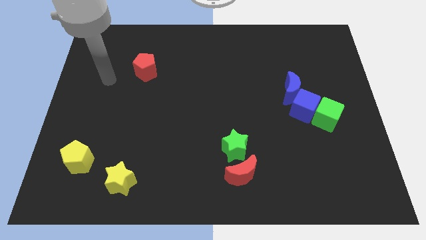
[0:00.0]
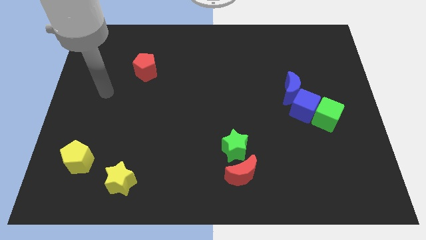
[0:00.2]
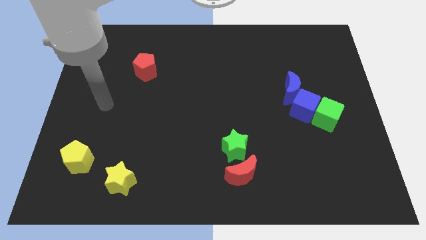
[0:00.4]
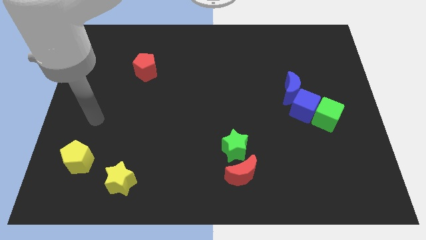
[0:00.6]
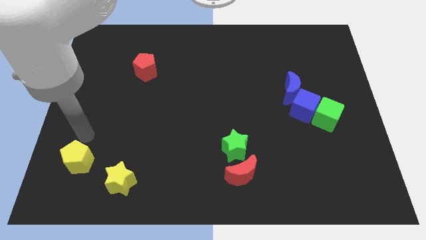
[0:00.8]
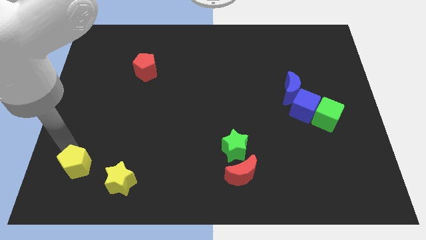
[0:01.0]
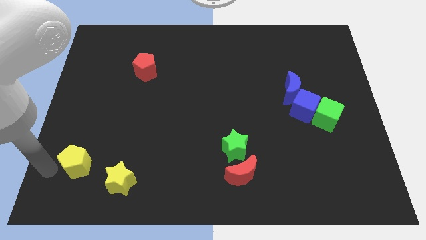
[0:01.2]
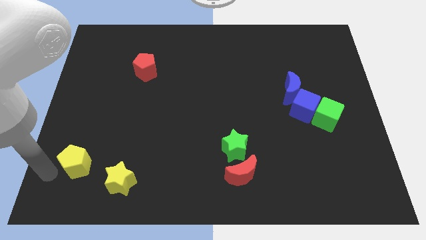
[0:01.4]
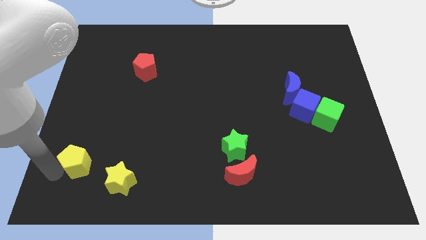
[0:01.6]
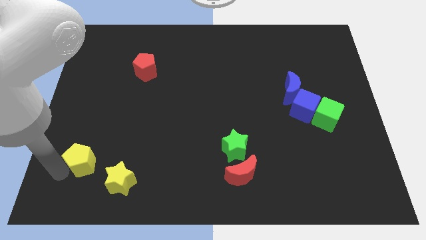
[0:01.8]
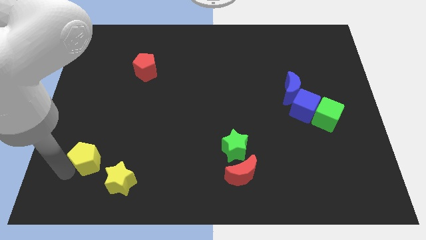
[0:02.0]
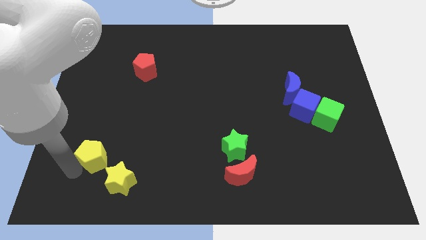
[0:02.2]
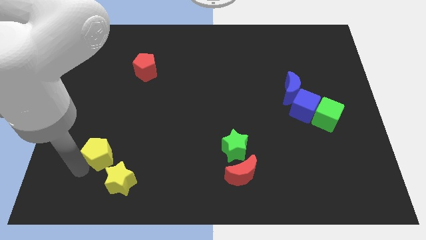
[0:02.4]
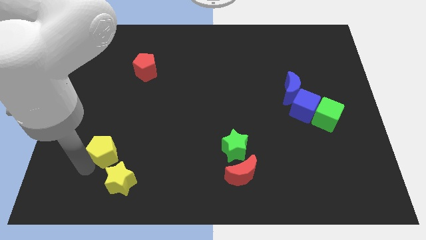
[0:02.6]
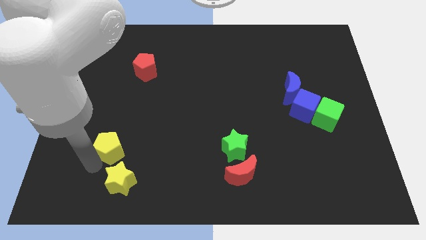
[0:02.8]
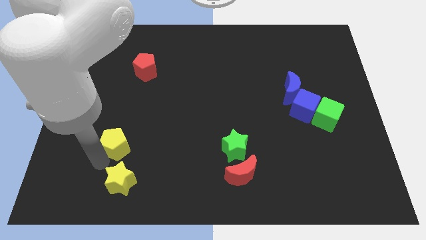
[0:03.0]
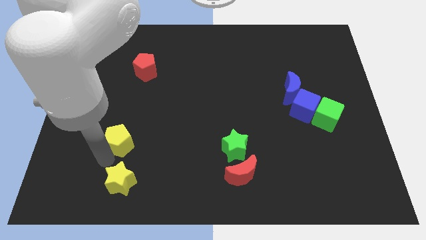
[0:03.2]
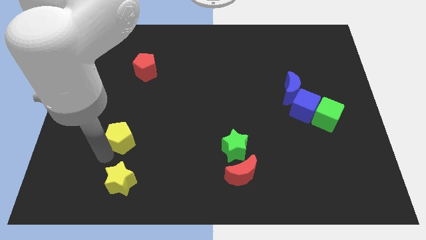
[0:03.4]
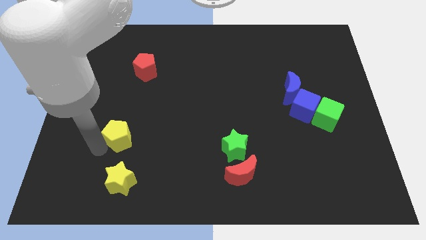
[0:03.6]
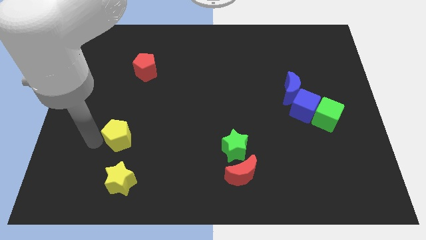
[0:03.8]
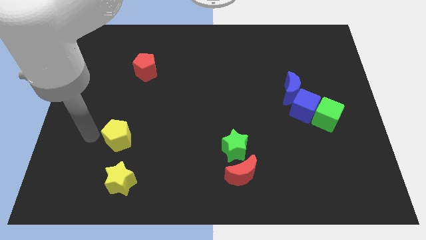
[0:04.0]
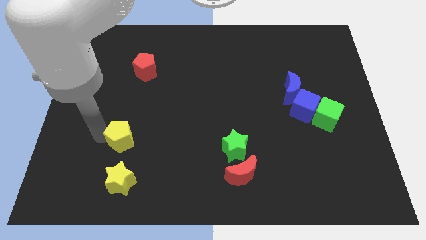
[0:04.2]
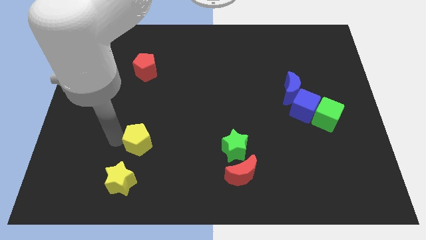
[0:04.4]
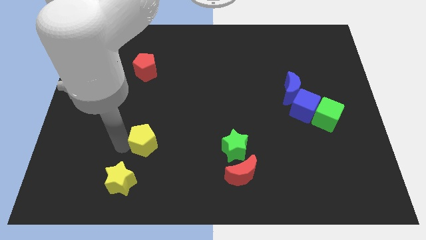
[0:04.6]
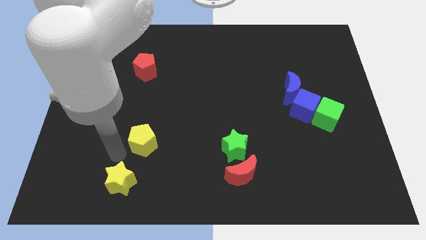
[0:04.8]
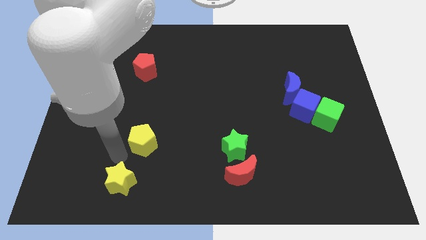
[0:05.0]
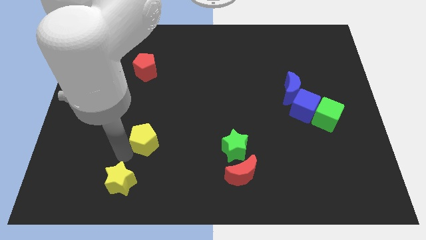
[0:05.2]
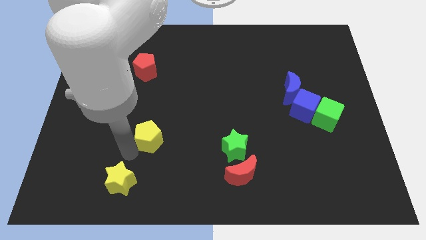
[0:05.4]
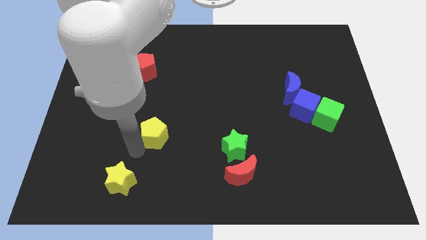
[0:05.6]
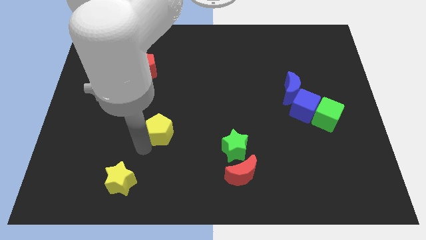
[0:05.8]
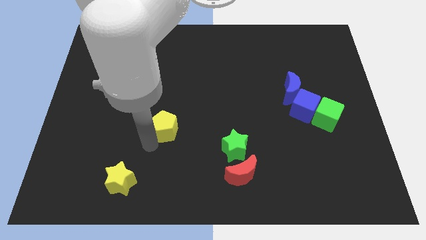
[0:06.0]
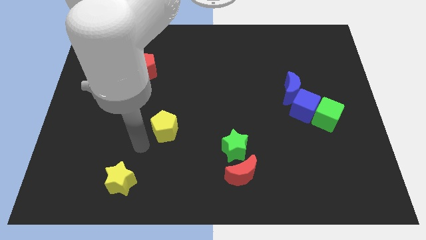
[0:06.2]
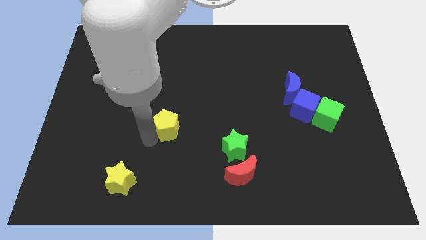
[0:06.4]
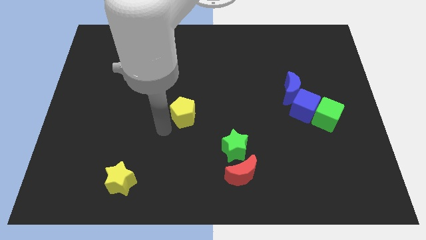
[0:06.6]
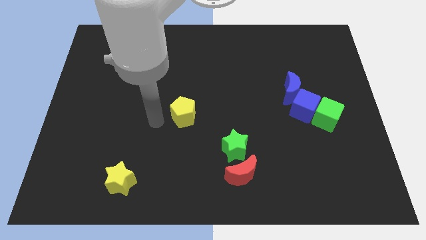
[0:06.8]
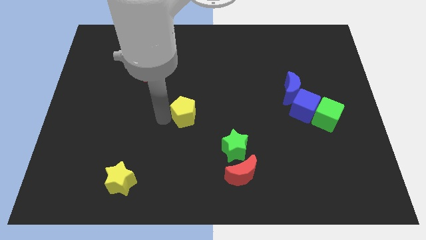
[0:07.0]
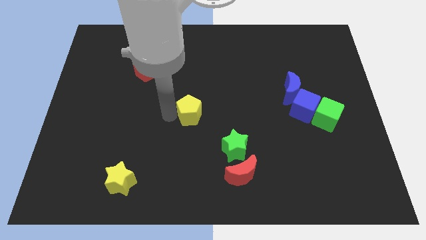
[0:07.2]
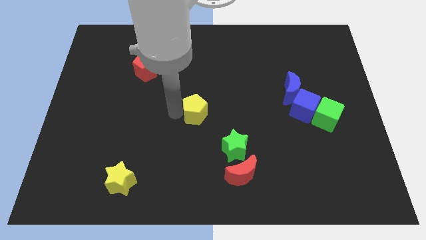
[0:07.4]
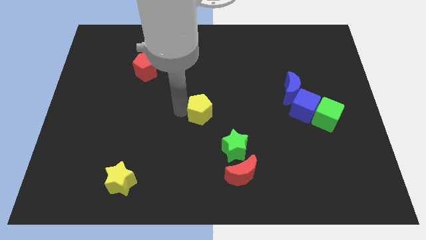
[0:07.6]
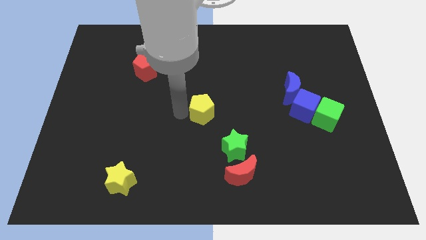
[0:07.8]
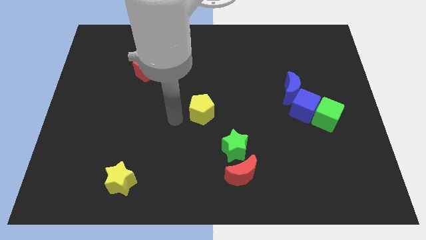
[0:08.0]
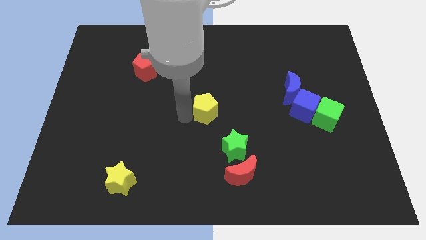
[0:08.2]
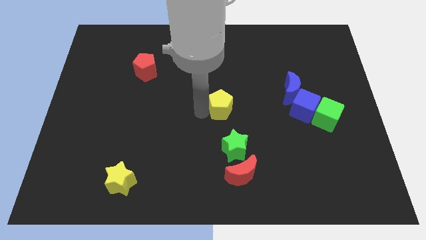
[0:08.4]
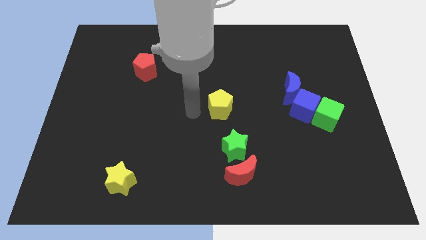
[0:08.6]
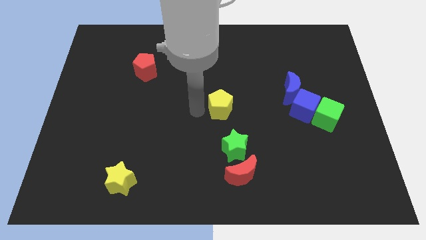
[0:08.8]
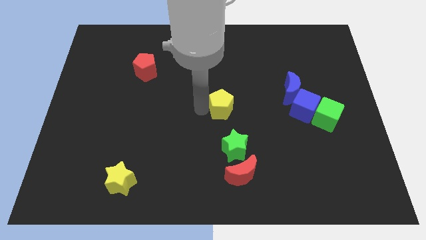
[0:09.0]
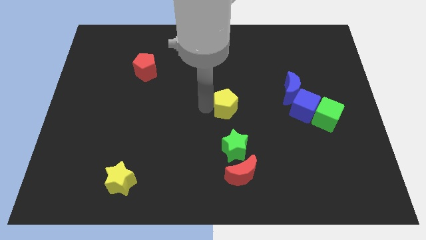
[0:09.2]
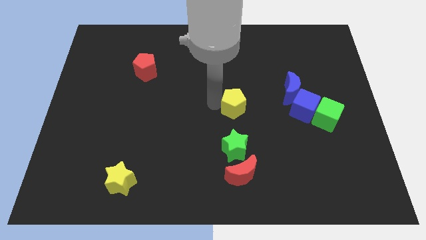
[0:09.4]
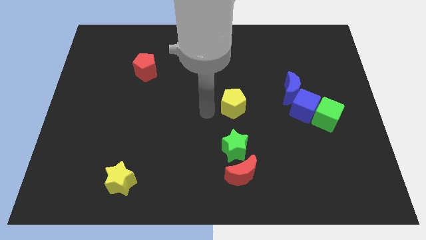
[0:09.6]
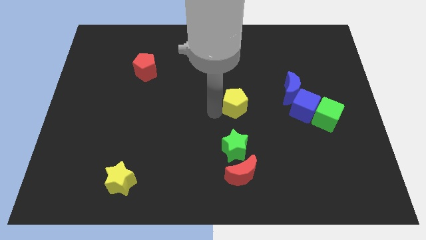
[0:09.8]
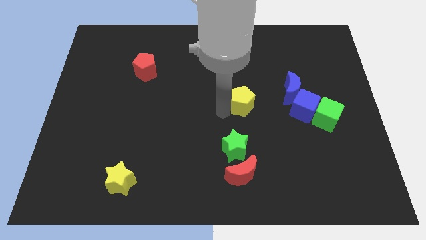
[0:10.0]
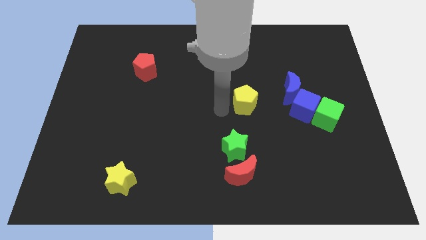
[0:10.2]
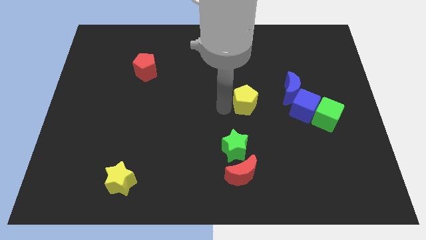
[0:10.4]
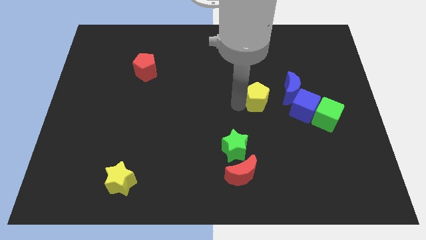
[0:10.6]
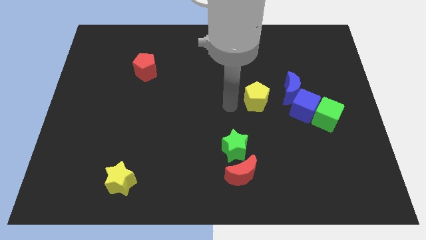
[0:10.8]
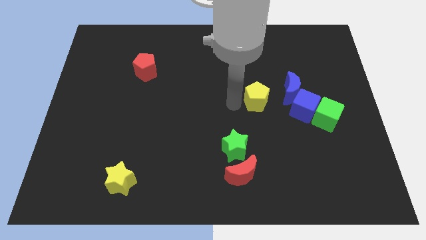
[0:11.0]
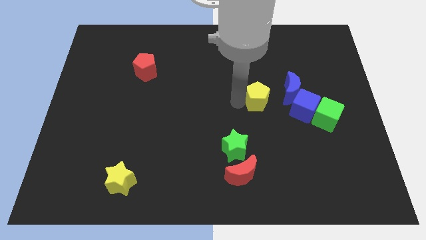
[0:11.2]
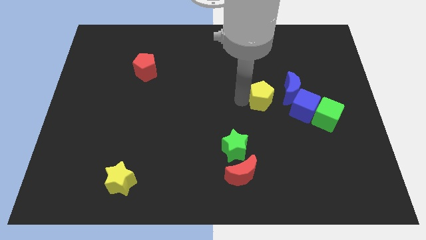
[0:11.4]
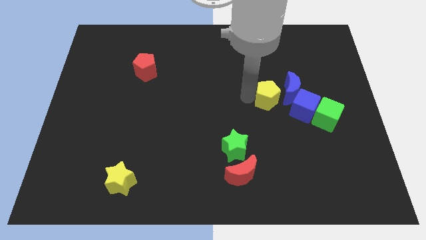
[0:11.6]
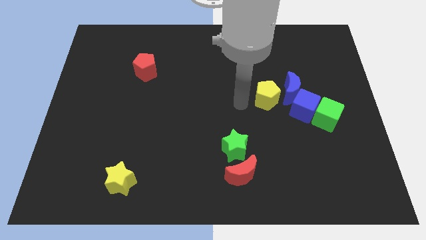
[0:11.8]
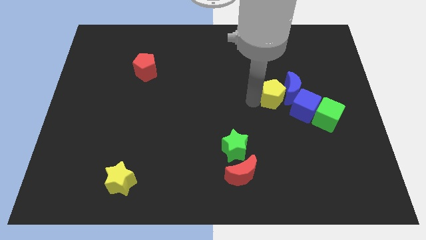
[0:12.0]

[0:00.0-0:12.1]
slide the yellow pentagon towards the blue moon
